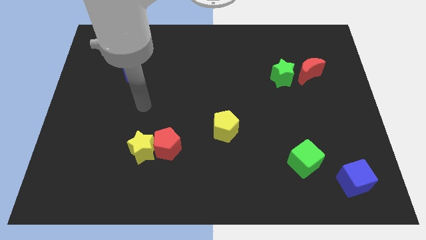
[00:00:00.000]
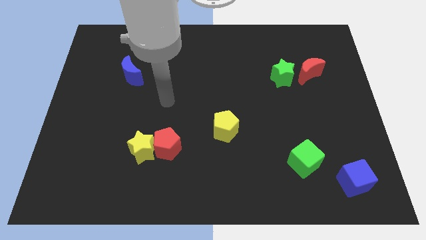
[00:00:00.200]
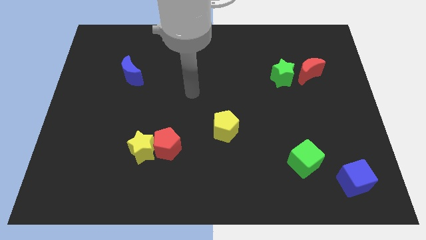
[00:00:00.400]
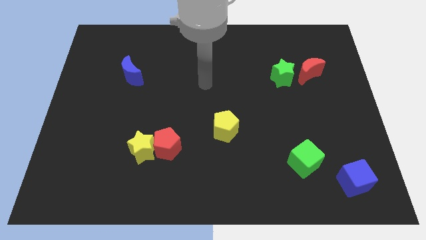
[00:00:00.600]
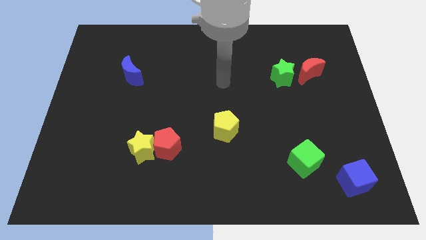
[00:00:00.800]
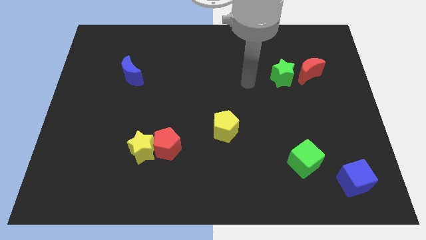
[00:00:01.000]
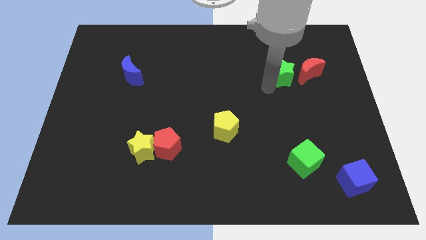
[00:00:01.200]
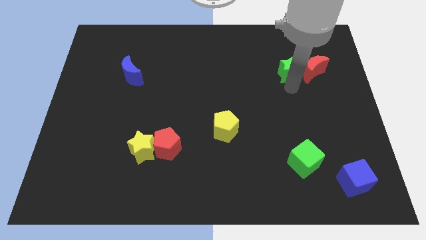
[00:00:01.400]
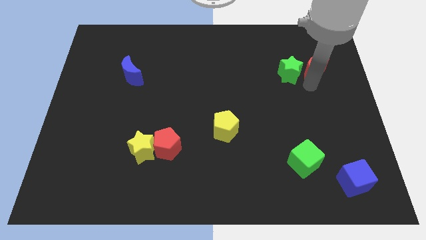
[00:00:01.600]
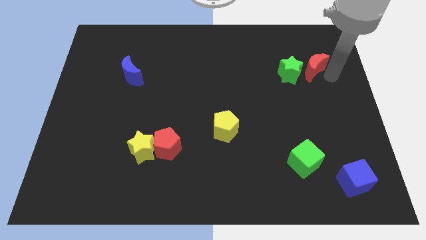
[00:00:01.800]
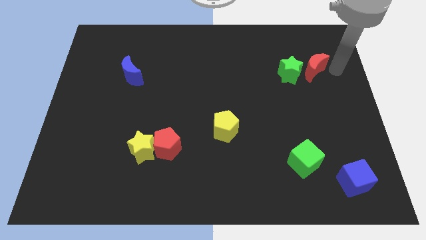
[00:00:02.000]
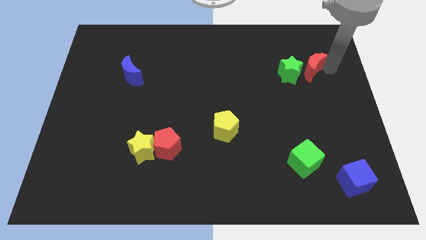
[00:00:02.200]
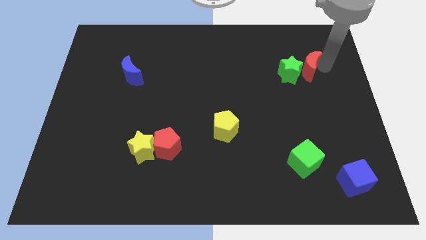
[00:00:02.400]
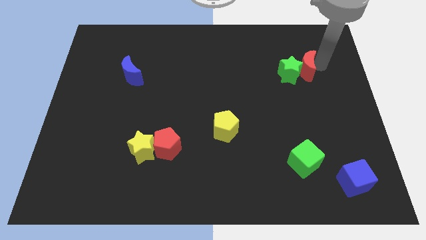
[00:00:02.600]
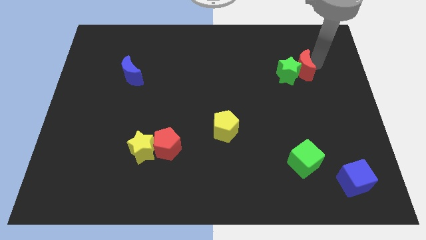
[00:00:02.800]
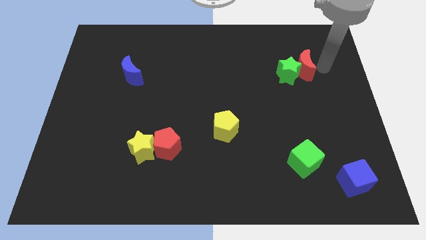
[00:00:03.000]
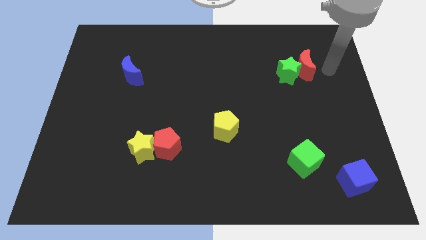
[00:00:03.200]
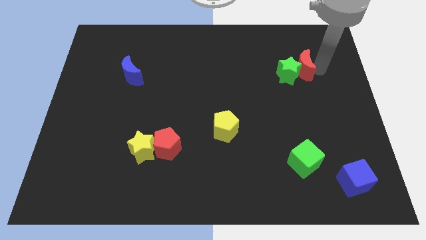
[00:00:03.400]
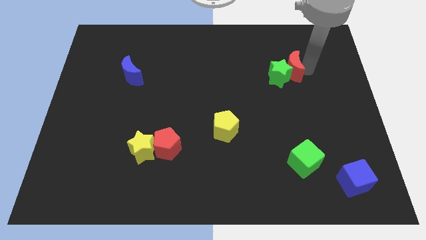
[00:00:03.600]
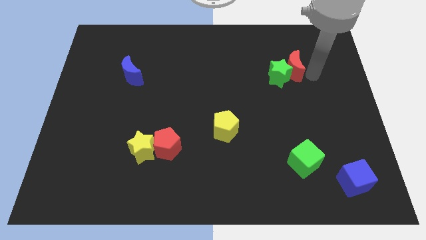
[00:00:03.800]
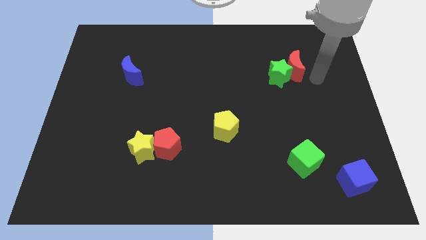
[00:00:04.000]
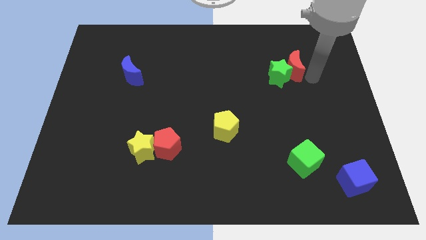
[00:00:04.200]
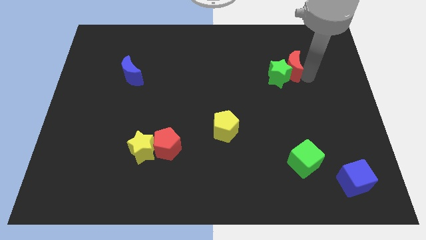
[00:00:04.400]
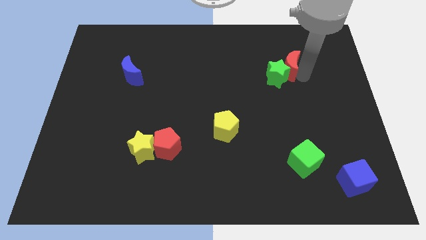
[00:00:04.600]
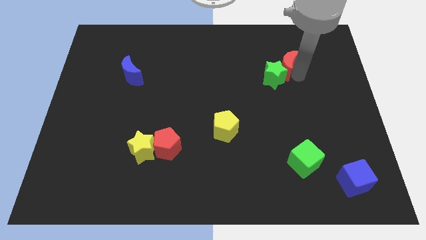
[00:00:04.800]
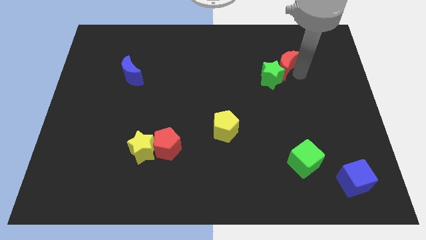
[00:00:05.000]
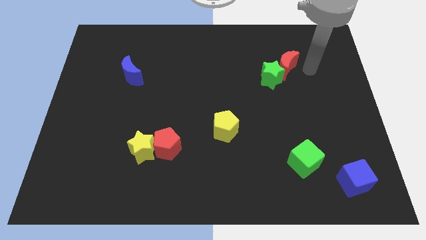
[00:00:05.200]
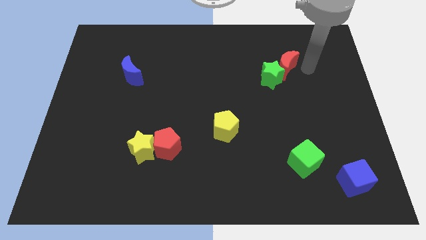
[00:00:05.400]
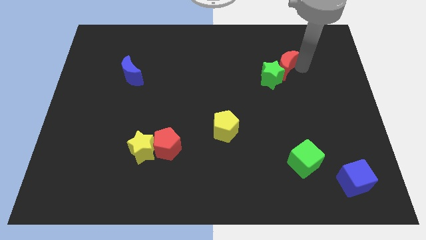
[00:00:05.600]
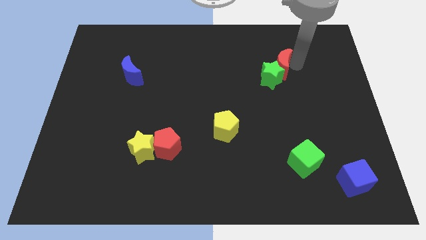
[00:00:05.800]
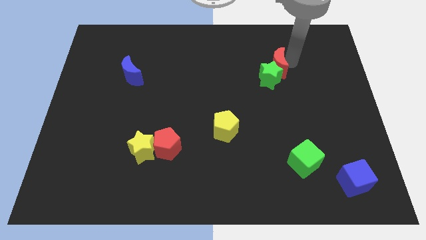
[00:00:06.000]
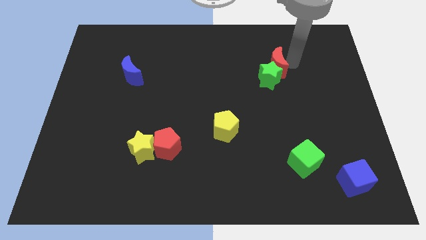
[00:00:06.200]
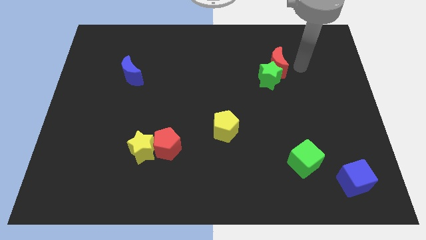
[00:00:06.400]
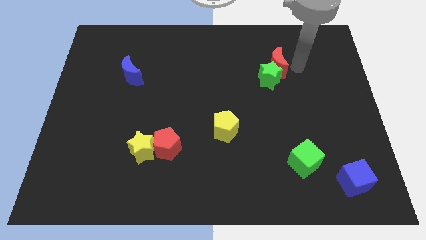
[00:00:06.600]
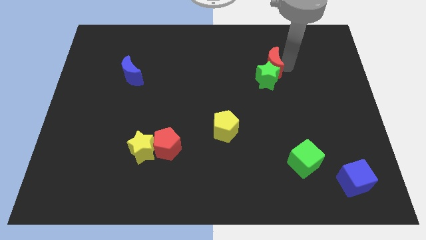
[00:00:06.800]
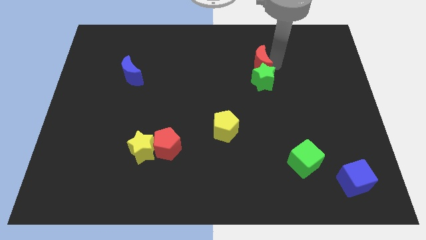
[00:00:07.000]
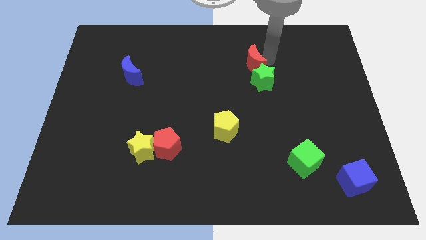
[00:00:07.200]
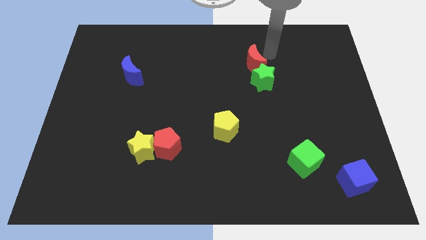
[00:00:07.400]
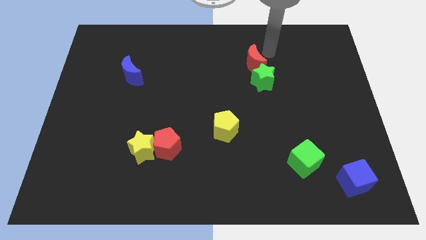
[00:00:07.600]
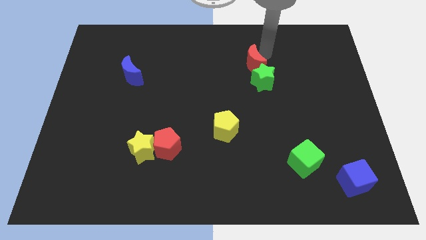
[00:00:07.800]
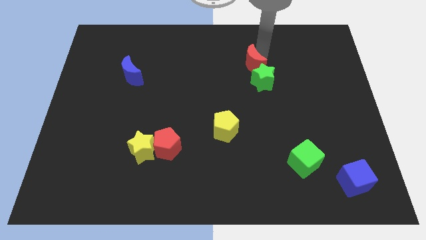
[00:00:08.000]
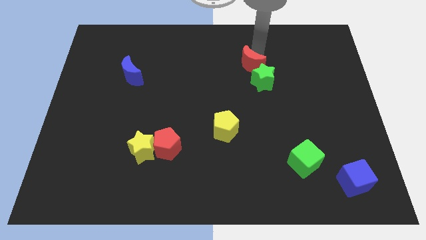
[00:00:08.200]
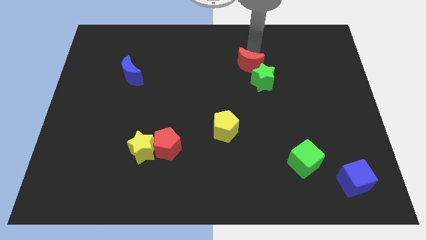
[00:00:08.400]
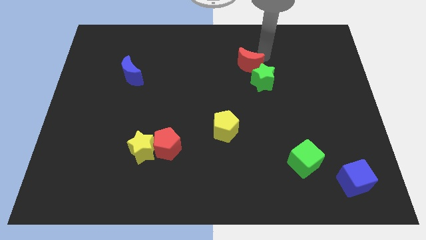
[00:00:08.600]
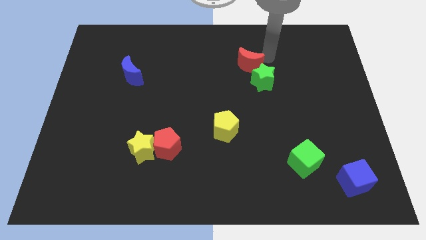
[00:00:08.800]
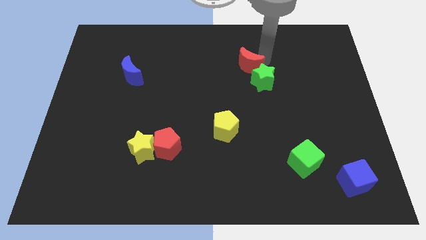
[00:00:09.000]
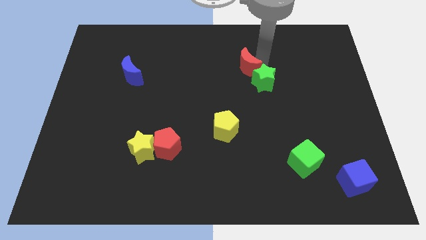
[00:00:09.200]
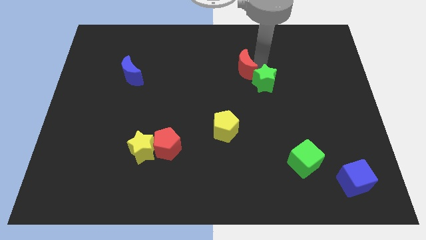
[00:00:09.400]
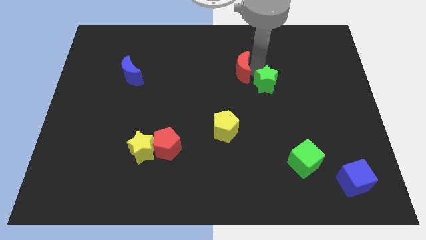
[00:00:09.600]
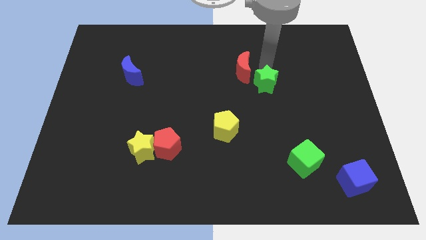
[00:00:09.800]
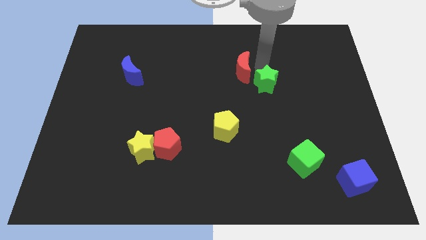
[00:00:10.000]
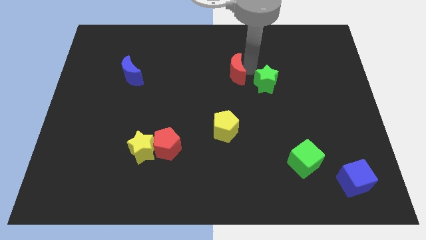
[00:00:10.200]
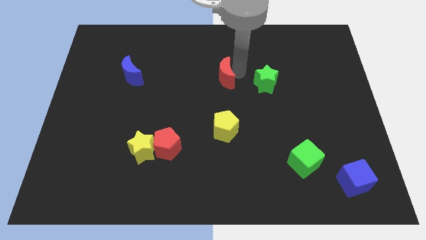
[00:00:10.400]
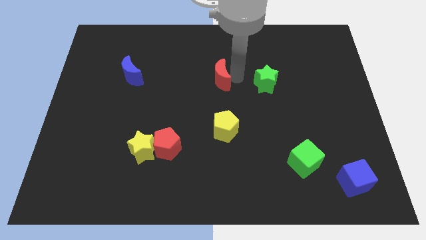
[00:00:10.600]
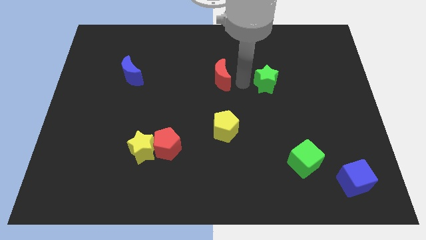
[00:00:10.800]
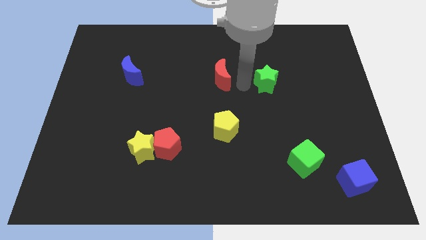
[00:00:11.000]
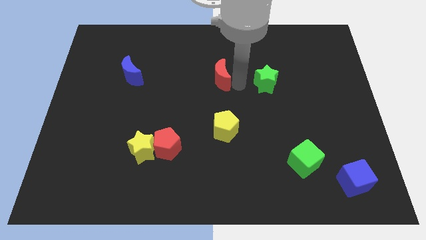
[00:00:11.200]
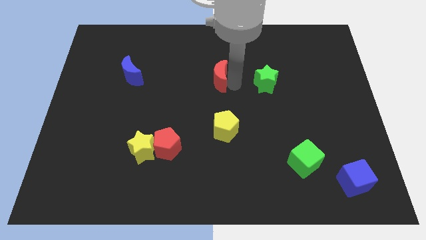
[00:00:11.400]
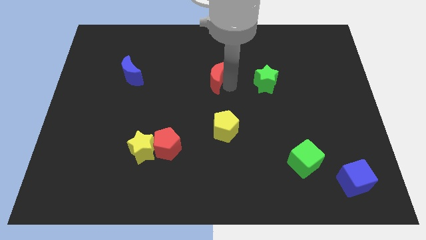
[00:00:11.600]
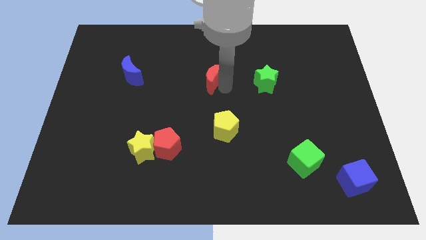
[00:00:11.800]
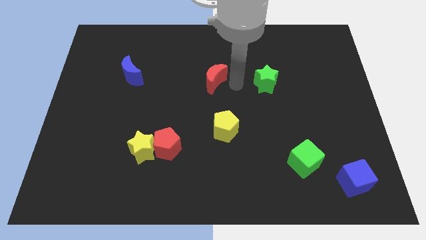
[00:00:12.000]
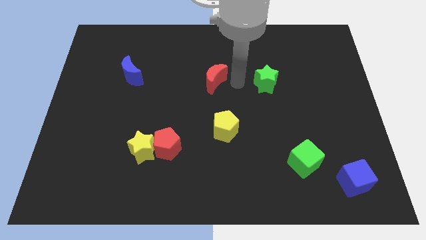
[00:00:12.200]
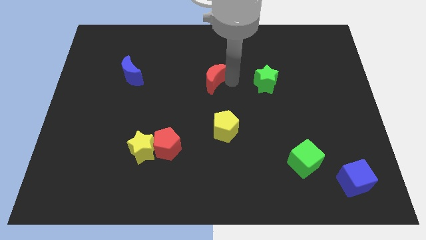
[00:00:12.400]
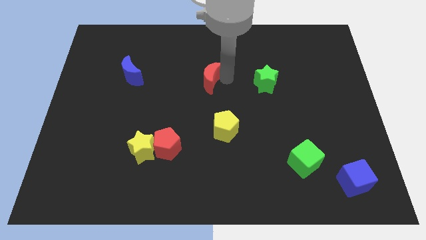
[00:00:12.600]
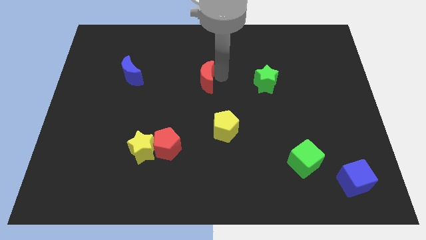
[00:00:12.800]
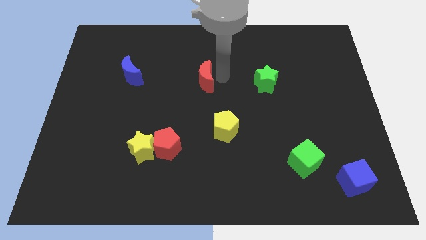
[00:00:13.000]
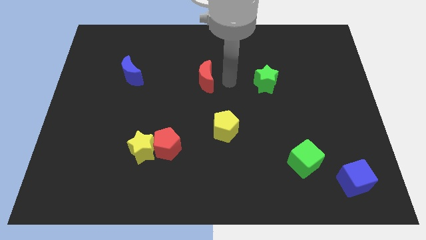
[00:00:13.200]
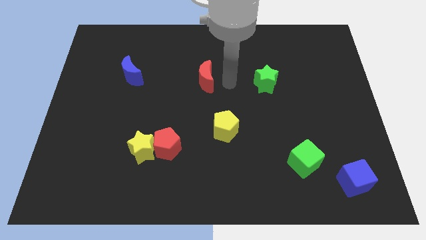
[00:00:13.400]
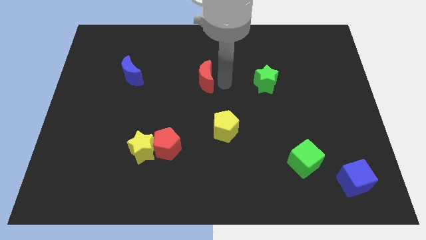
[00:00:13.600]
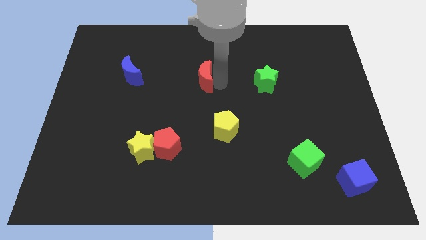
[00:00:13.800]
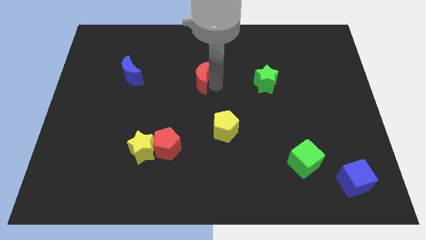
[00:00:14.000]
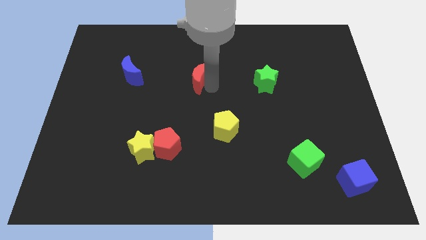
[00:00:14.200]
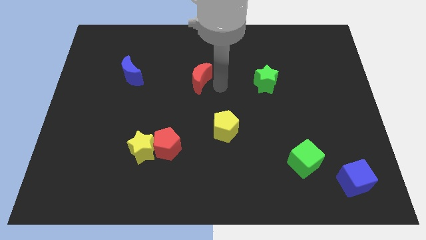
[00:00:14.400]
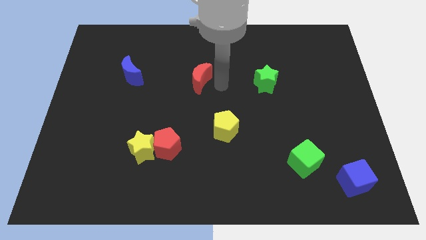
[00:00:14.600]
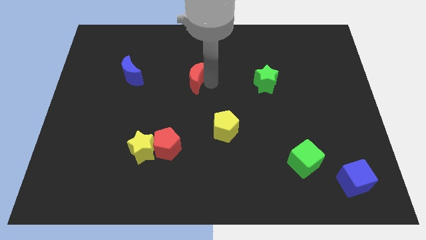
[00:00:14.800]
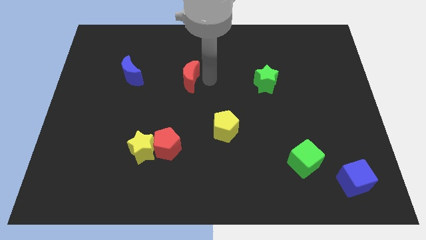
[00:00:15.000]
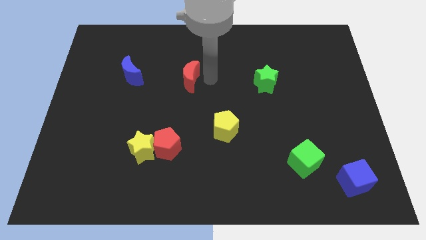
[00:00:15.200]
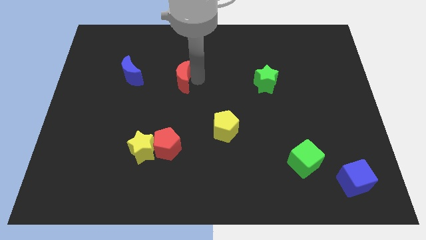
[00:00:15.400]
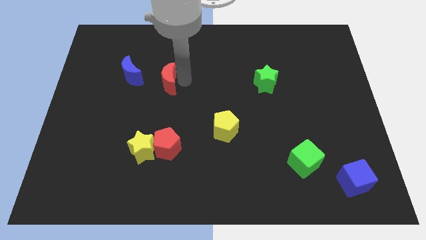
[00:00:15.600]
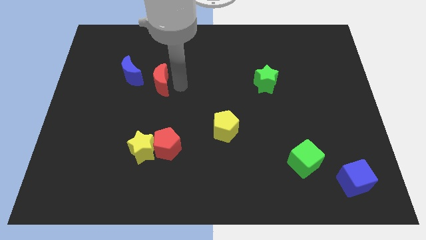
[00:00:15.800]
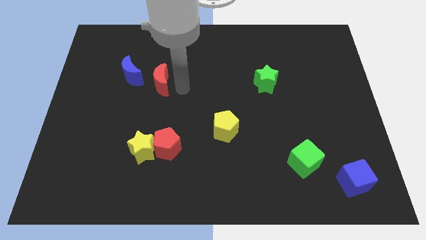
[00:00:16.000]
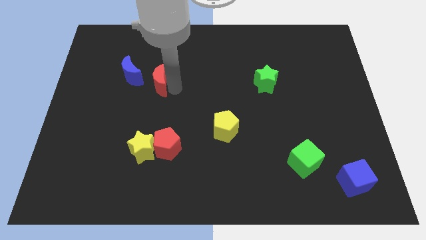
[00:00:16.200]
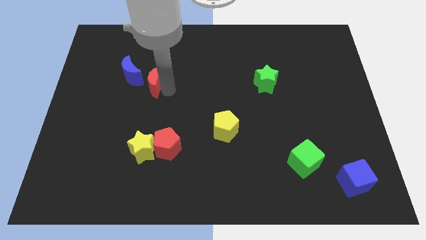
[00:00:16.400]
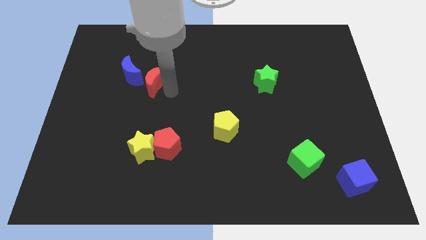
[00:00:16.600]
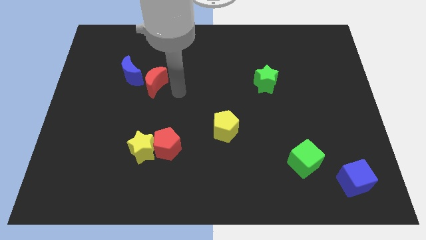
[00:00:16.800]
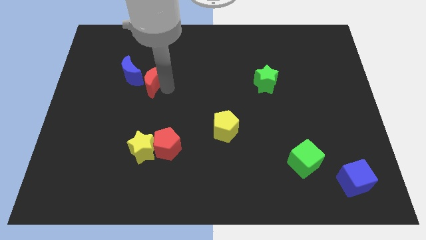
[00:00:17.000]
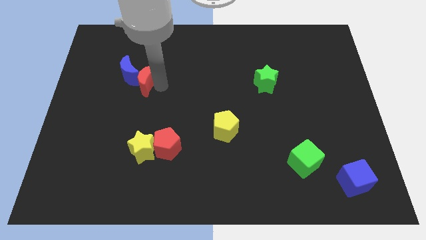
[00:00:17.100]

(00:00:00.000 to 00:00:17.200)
put the red moon next to the blue moon
